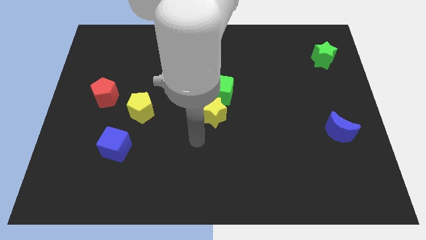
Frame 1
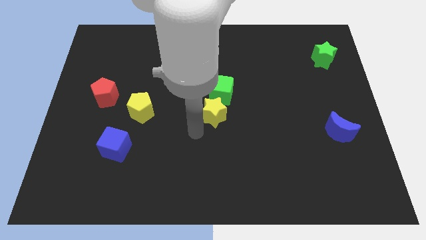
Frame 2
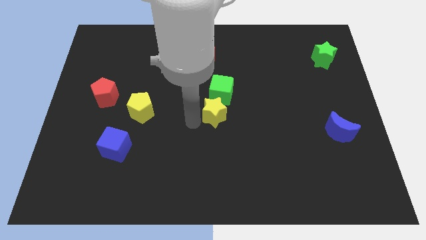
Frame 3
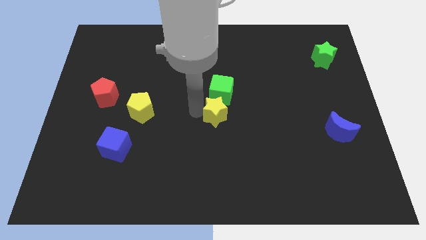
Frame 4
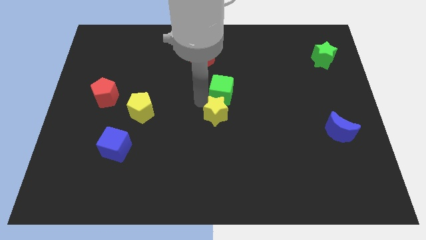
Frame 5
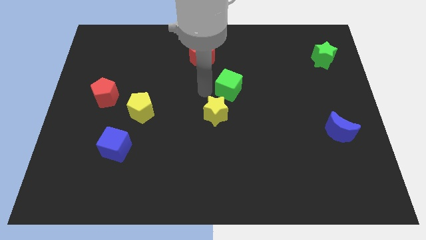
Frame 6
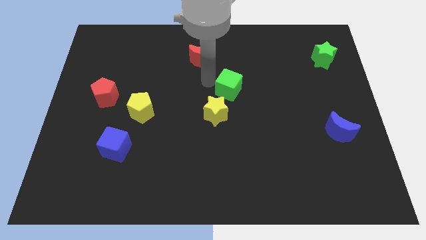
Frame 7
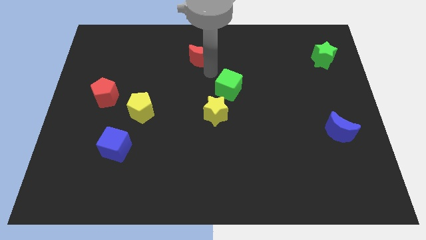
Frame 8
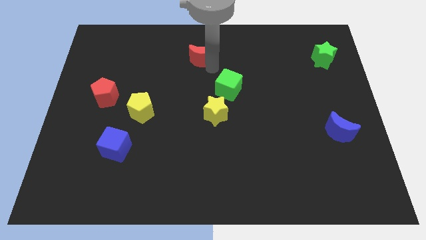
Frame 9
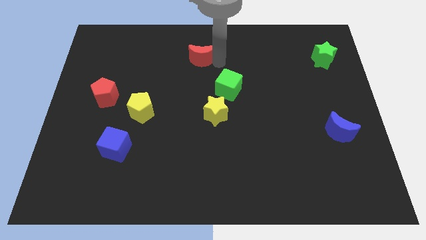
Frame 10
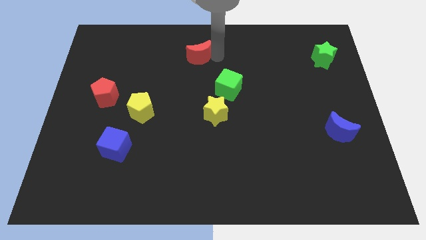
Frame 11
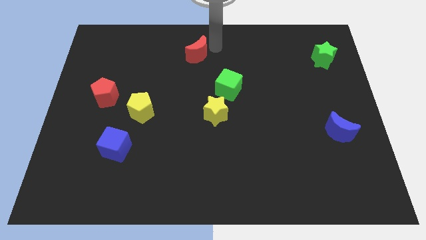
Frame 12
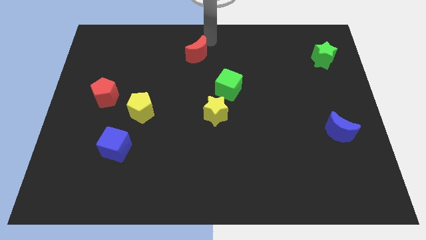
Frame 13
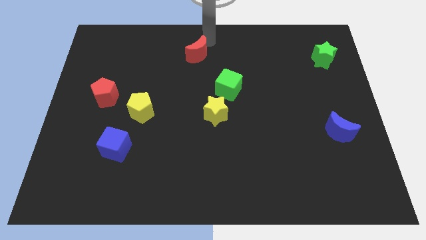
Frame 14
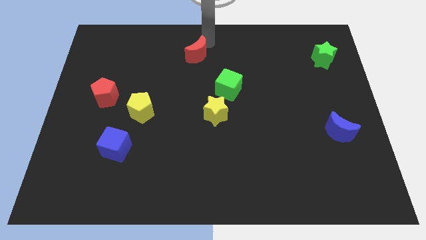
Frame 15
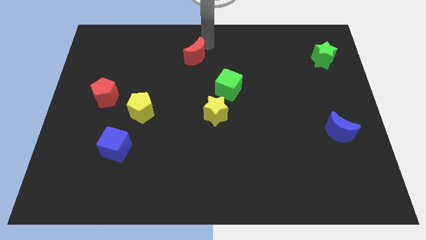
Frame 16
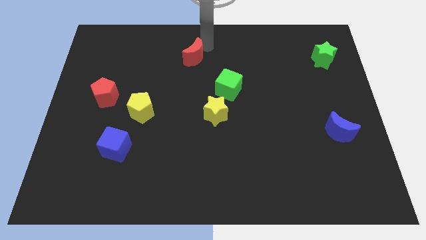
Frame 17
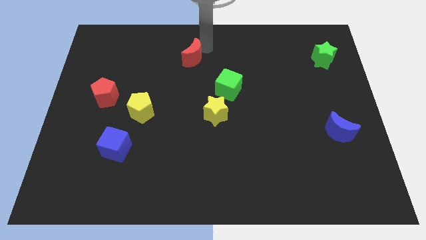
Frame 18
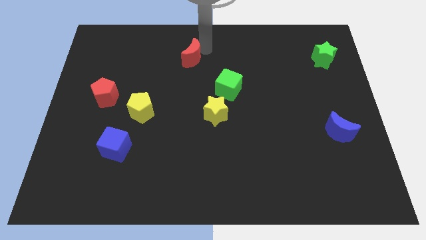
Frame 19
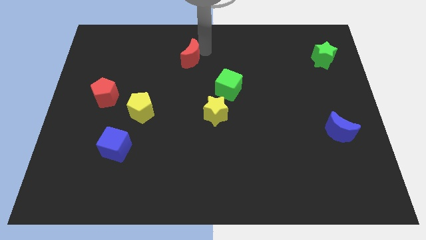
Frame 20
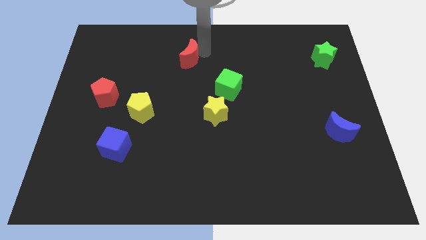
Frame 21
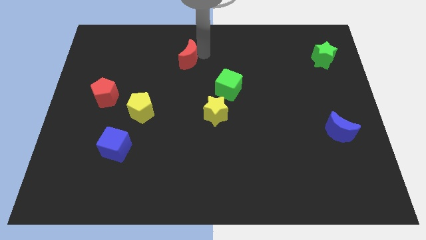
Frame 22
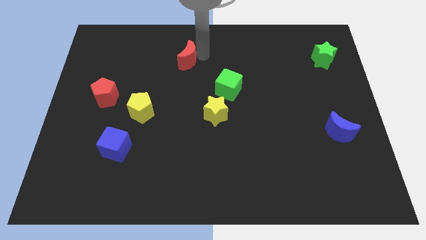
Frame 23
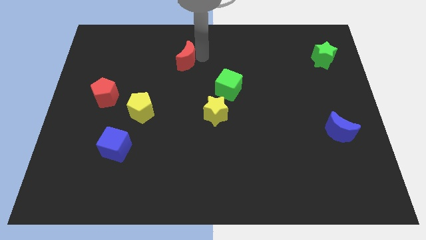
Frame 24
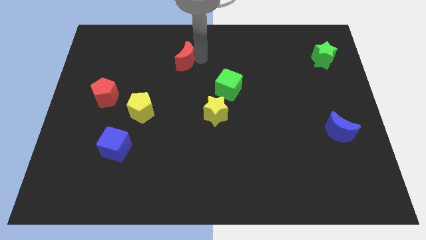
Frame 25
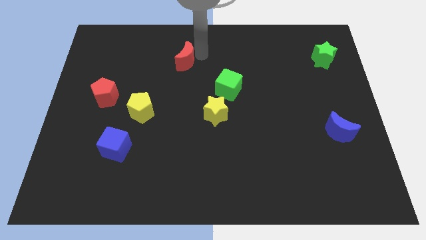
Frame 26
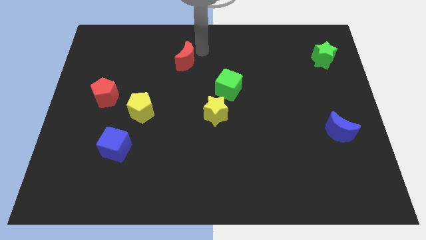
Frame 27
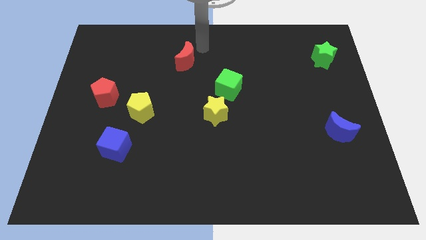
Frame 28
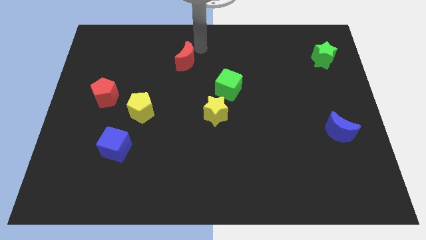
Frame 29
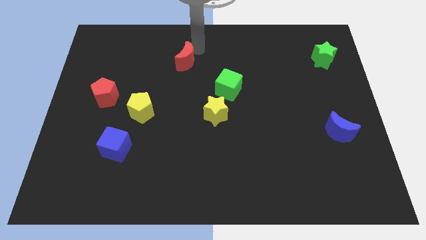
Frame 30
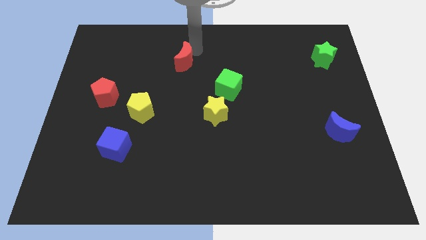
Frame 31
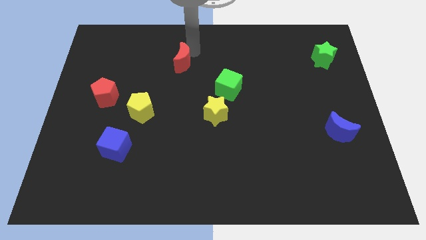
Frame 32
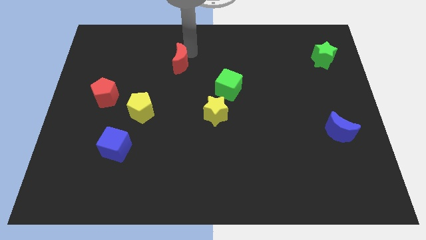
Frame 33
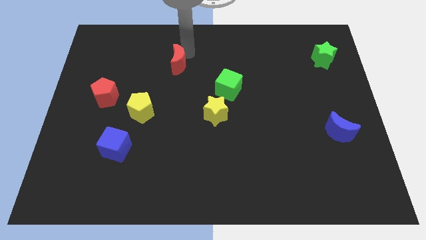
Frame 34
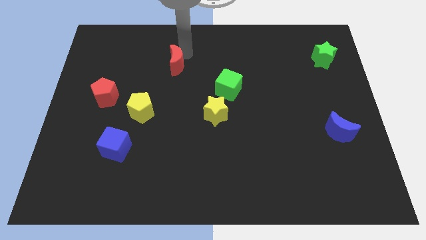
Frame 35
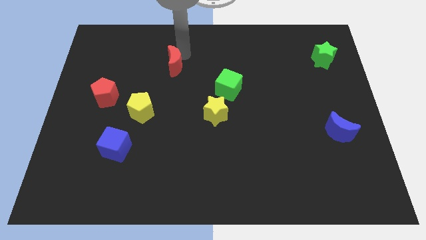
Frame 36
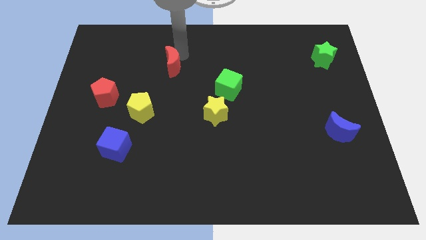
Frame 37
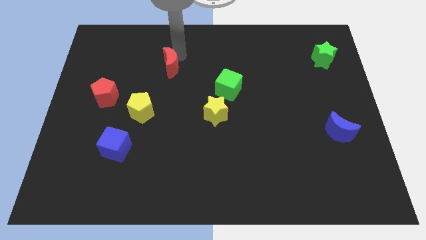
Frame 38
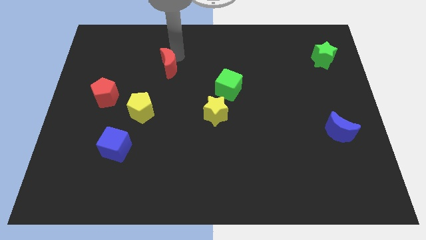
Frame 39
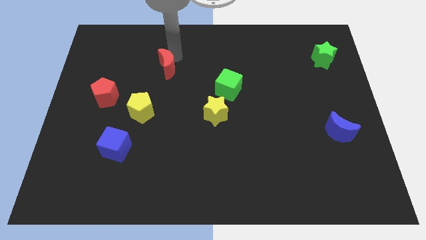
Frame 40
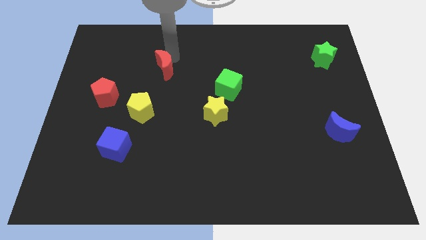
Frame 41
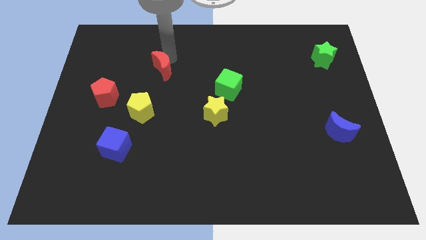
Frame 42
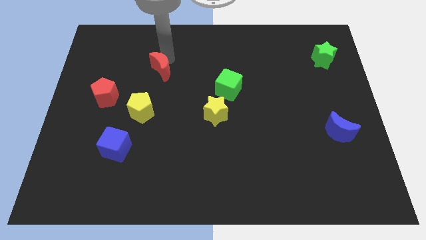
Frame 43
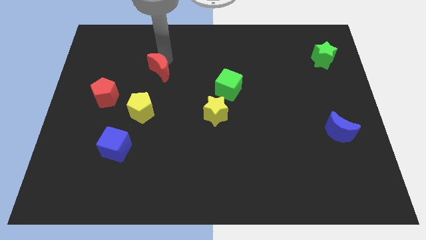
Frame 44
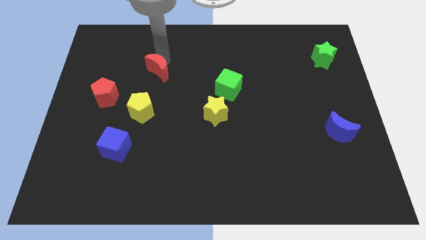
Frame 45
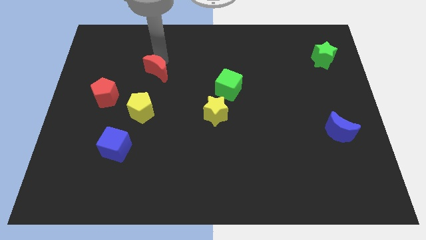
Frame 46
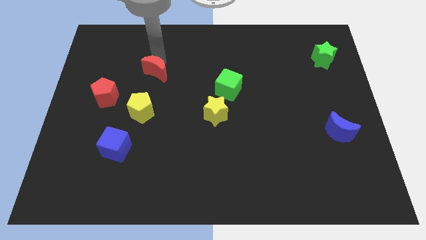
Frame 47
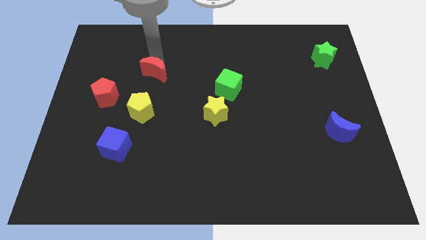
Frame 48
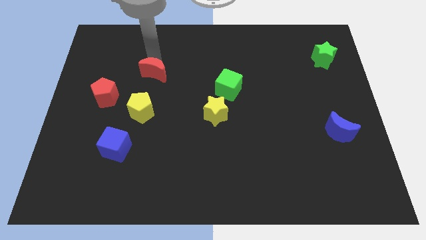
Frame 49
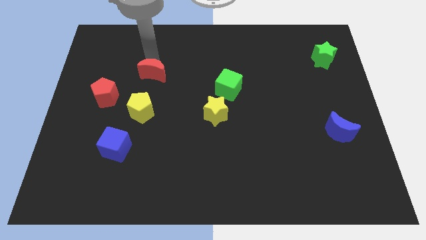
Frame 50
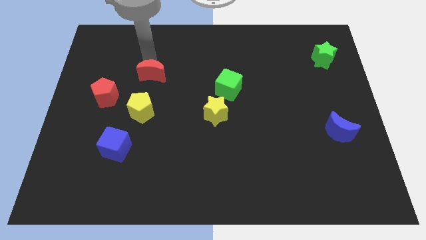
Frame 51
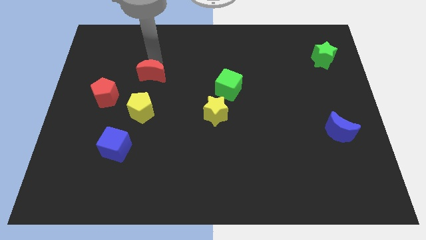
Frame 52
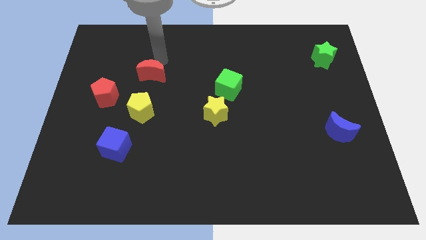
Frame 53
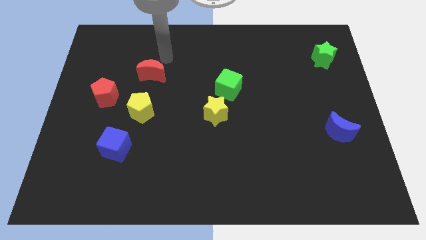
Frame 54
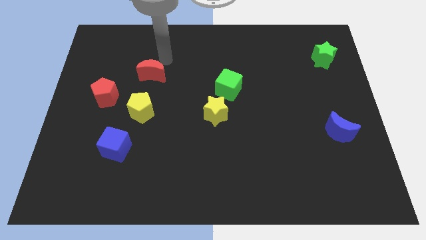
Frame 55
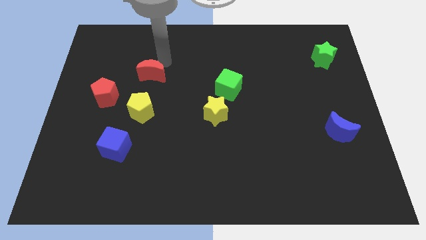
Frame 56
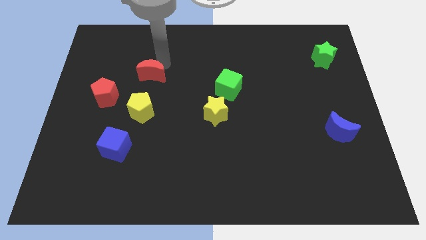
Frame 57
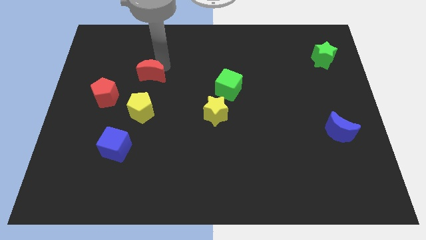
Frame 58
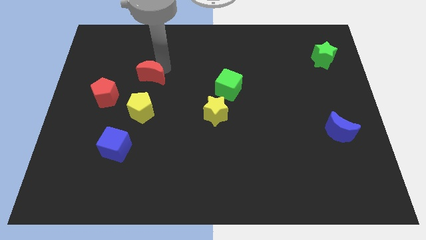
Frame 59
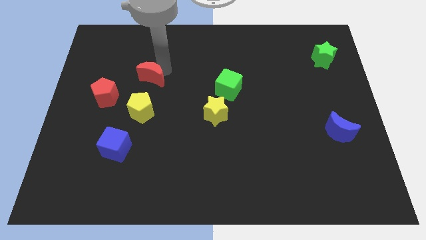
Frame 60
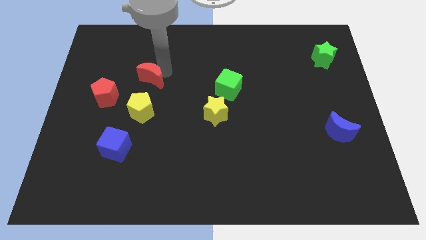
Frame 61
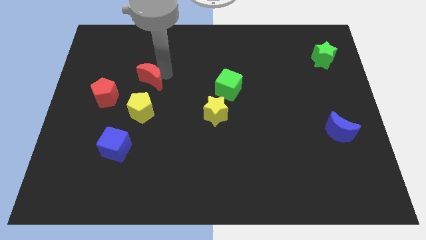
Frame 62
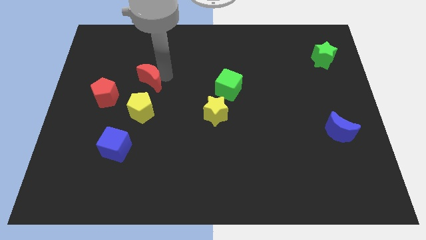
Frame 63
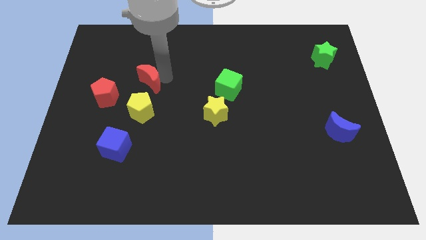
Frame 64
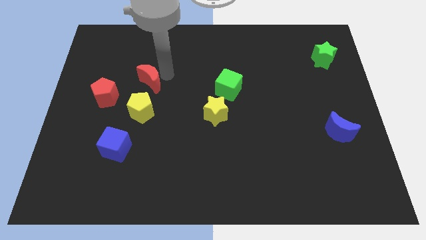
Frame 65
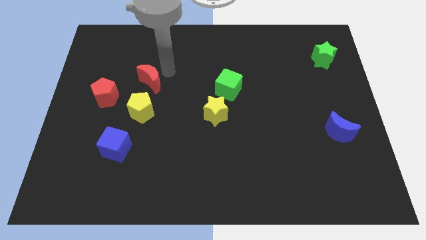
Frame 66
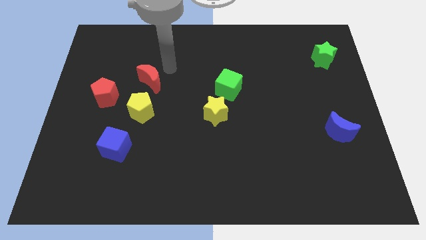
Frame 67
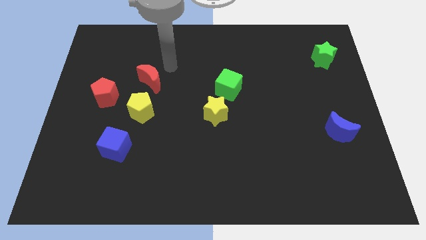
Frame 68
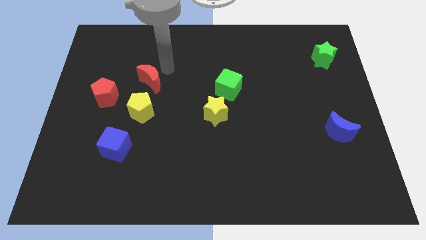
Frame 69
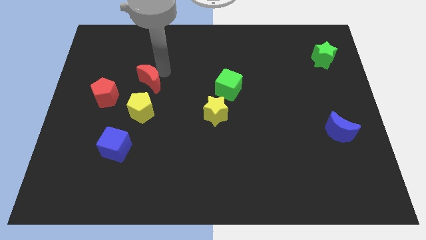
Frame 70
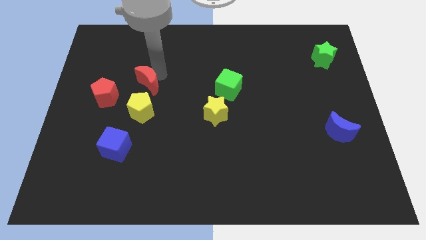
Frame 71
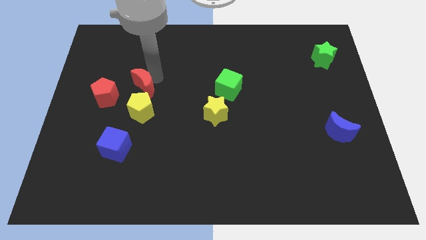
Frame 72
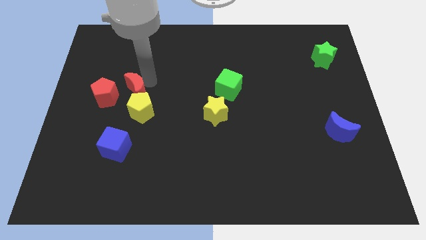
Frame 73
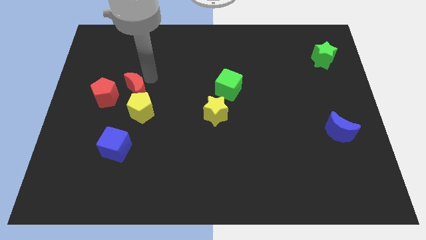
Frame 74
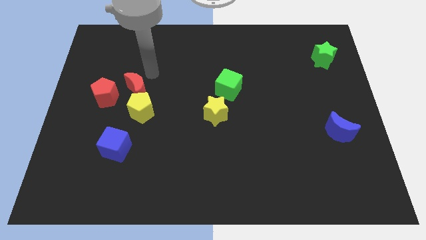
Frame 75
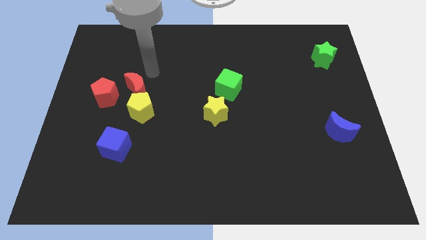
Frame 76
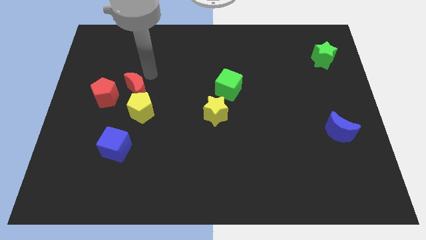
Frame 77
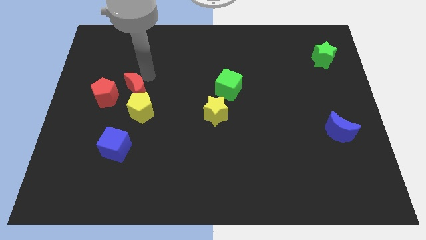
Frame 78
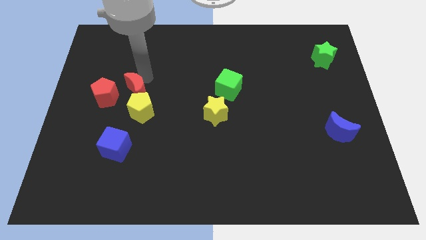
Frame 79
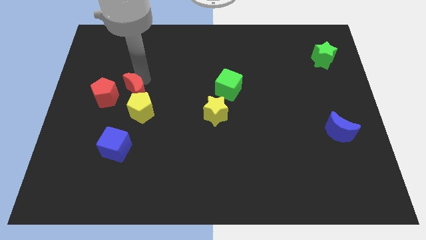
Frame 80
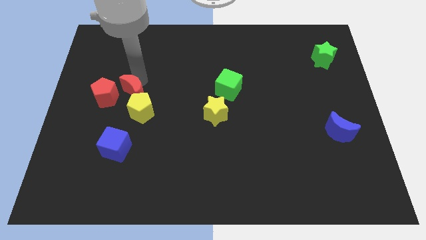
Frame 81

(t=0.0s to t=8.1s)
slide the red moon to the top side of the blue cube
